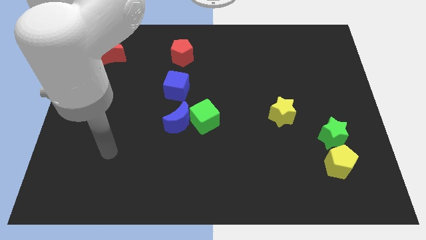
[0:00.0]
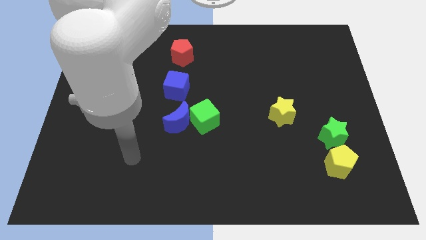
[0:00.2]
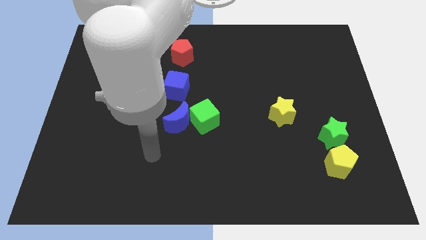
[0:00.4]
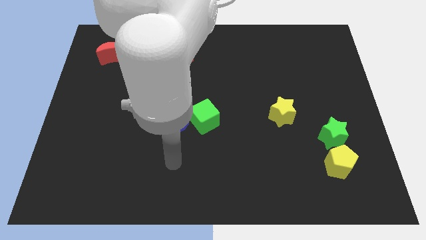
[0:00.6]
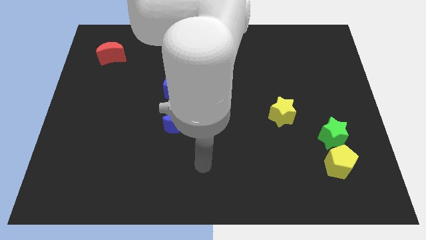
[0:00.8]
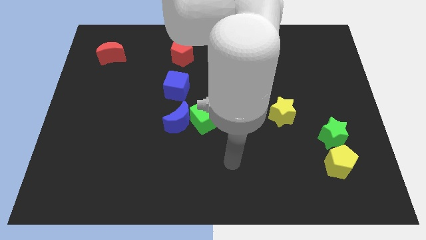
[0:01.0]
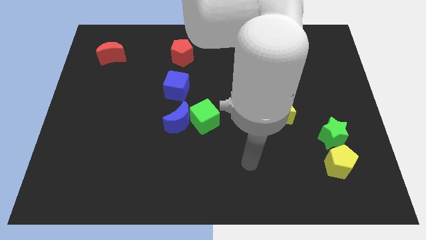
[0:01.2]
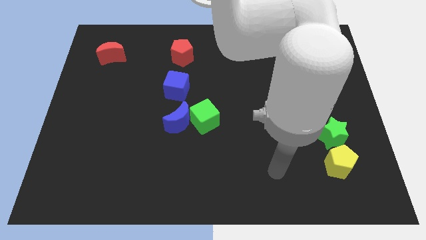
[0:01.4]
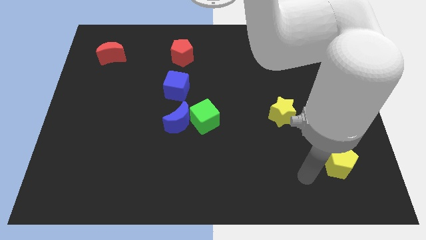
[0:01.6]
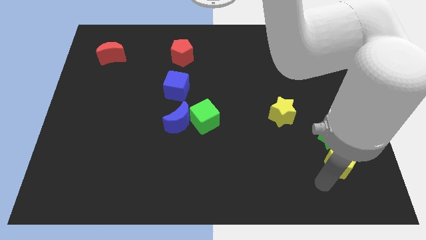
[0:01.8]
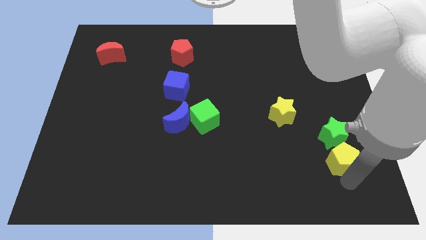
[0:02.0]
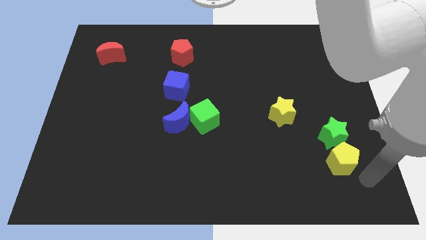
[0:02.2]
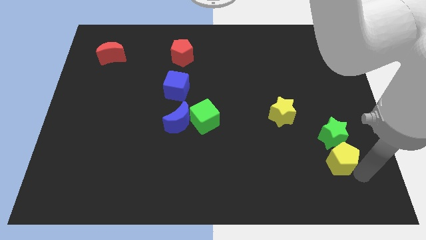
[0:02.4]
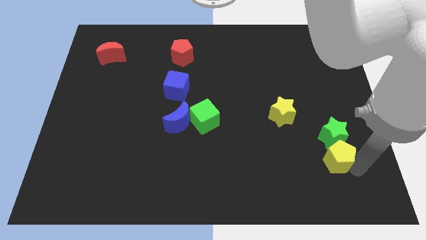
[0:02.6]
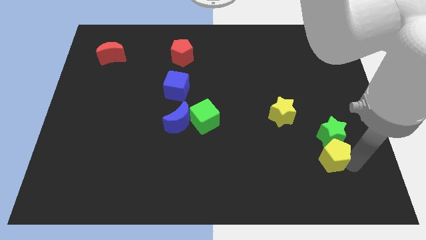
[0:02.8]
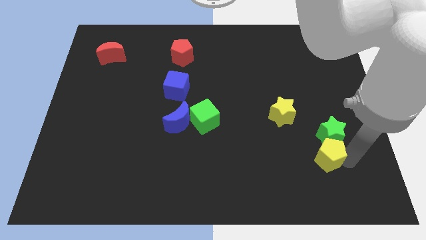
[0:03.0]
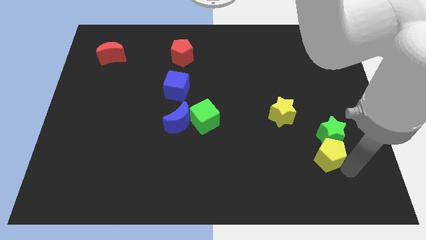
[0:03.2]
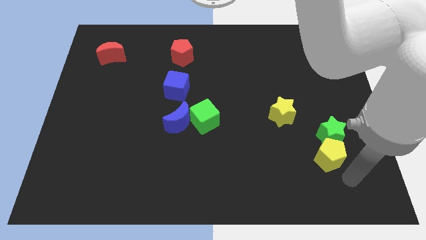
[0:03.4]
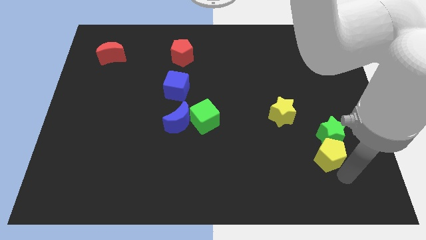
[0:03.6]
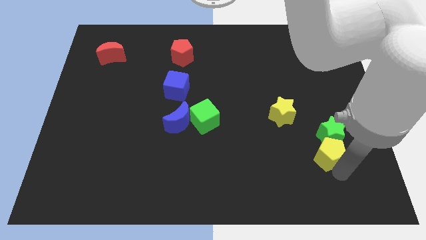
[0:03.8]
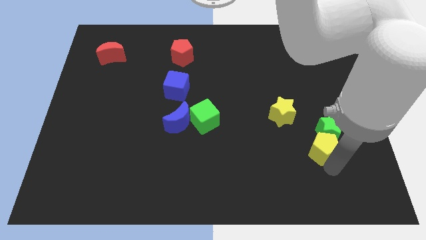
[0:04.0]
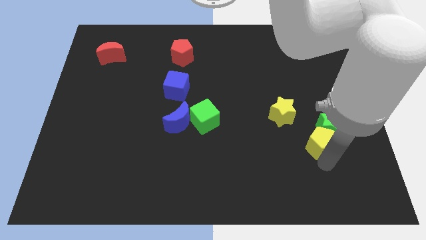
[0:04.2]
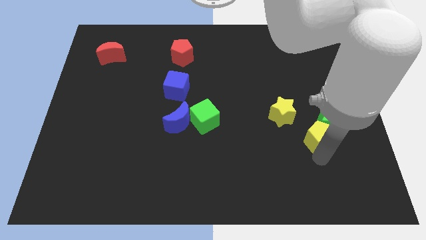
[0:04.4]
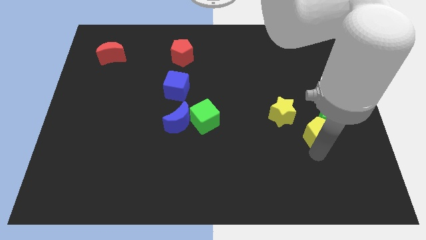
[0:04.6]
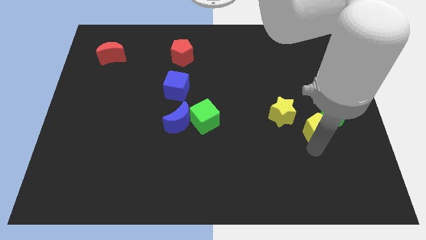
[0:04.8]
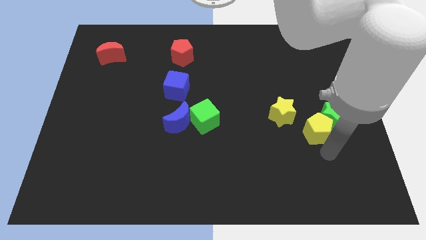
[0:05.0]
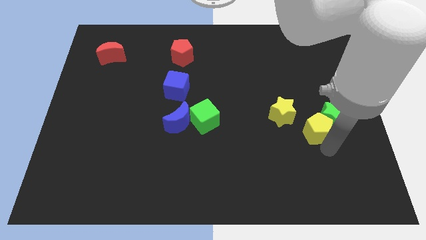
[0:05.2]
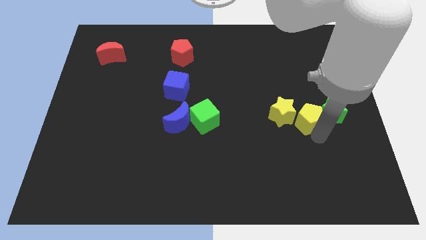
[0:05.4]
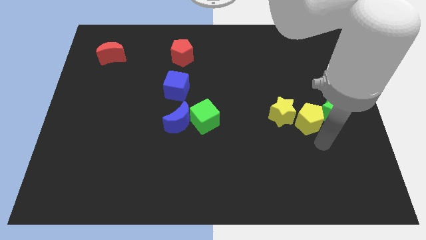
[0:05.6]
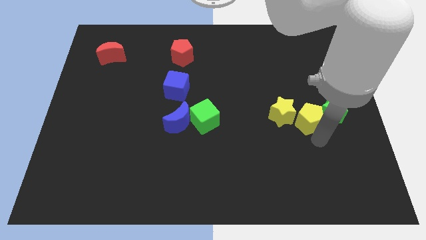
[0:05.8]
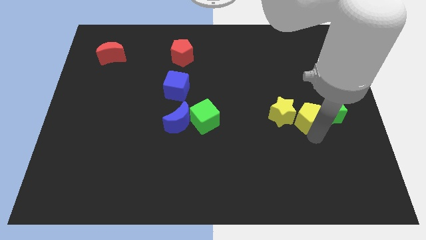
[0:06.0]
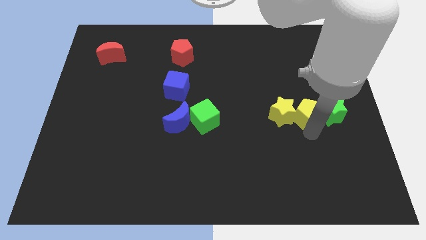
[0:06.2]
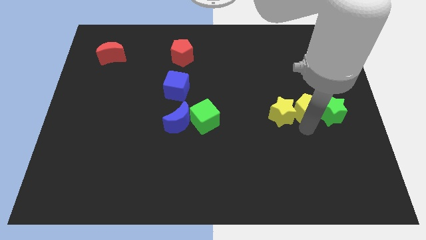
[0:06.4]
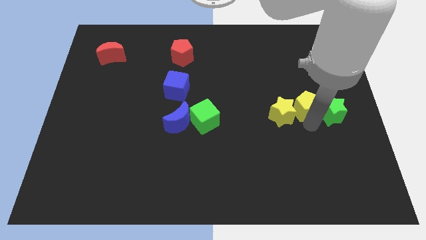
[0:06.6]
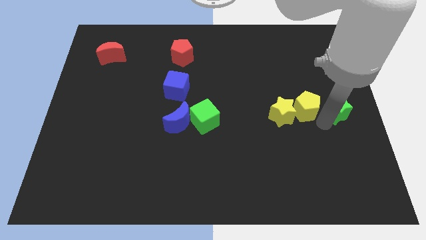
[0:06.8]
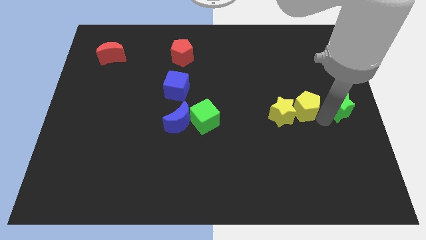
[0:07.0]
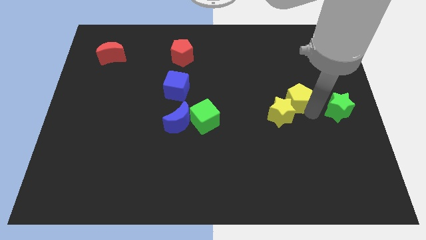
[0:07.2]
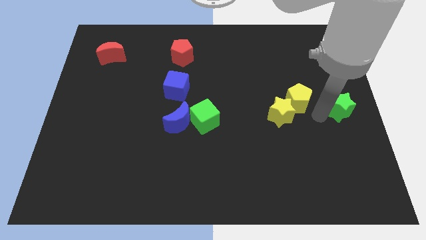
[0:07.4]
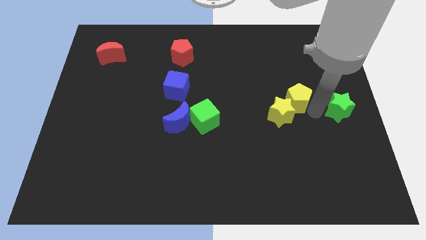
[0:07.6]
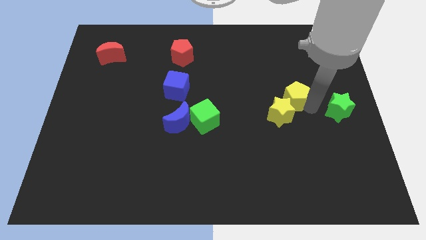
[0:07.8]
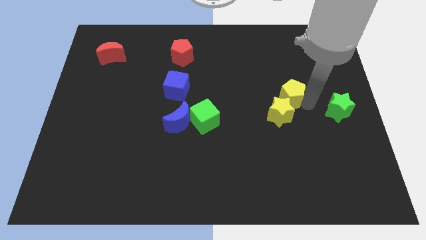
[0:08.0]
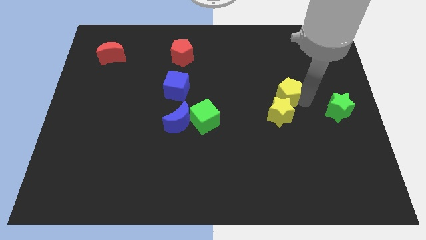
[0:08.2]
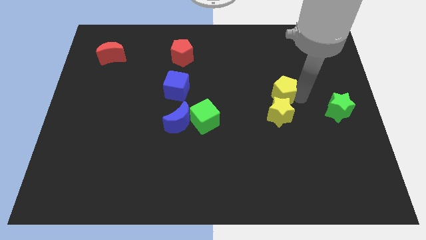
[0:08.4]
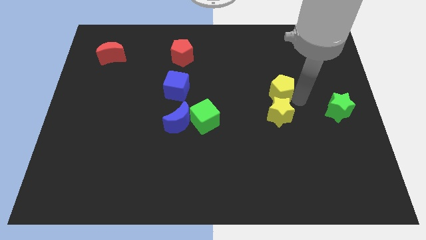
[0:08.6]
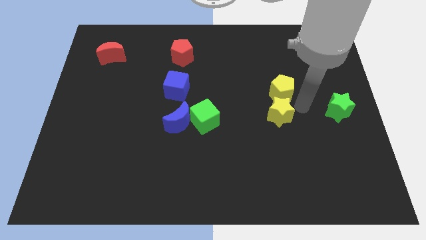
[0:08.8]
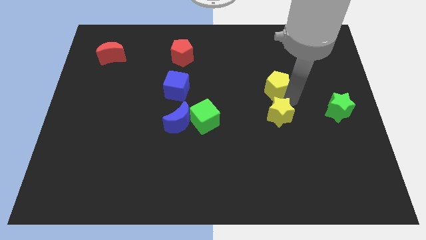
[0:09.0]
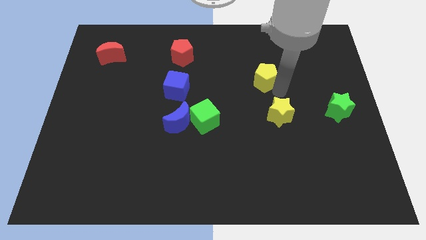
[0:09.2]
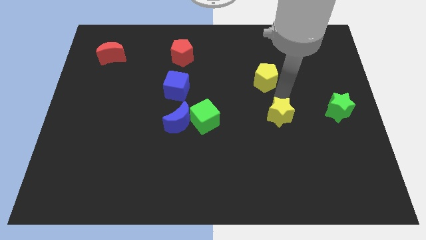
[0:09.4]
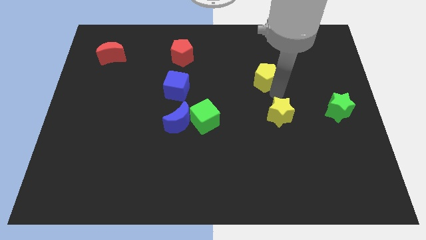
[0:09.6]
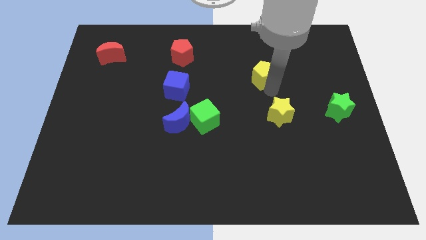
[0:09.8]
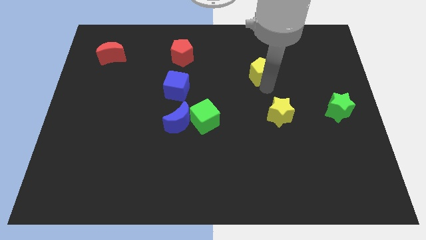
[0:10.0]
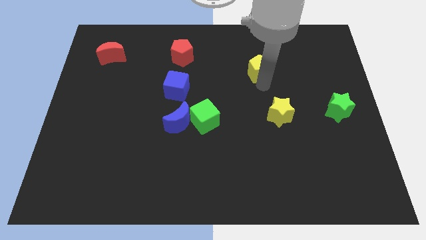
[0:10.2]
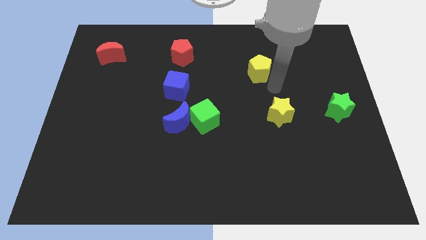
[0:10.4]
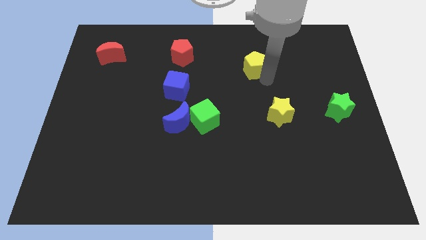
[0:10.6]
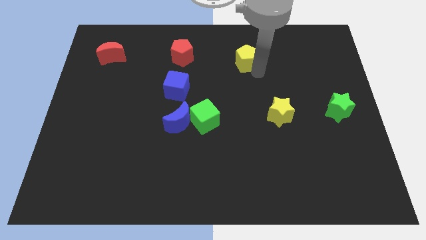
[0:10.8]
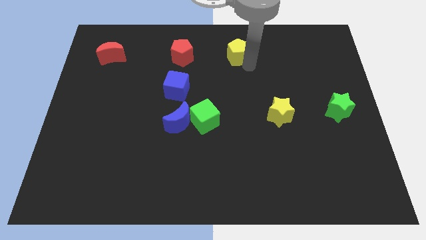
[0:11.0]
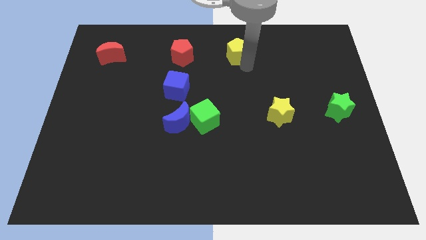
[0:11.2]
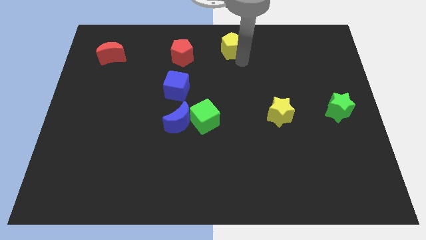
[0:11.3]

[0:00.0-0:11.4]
slide the yellow pentagon to the top side
